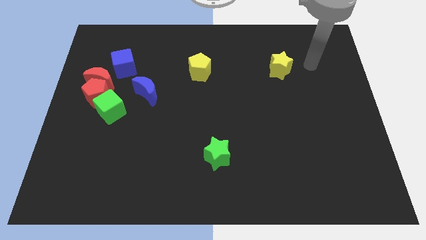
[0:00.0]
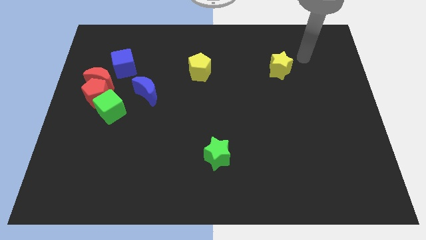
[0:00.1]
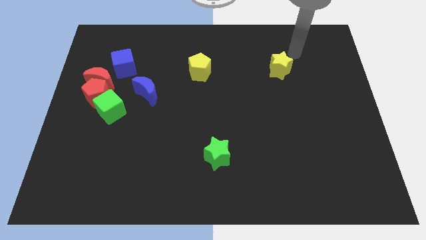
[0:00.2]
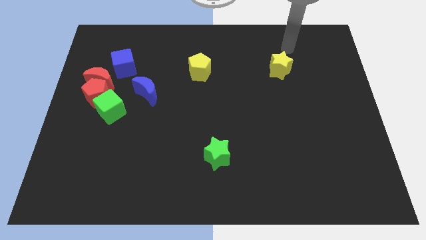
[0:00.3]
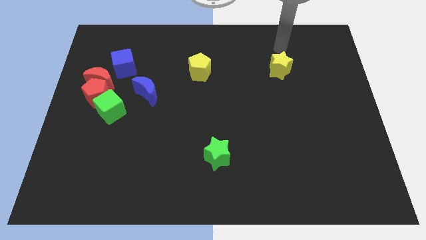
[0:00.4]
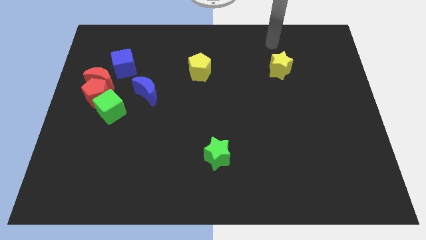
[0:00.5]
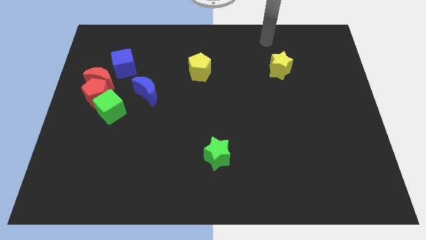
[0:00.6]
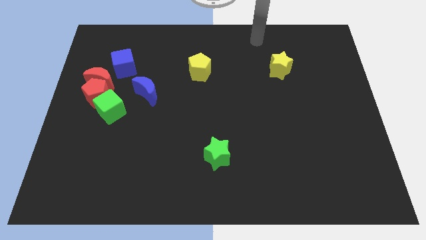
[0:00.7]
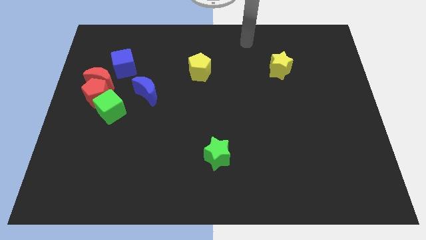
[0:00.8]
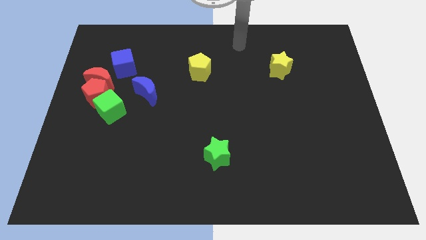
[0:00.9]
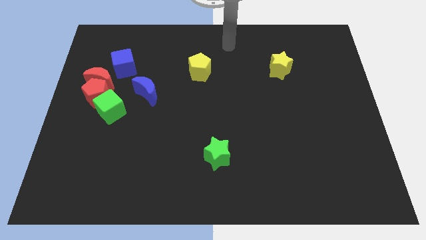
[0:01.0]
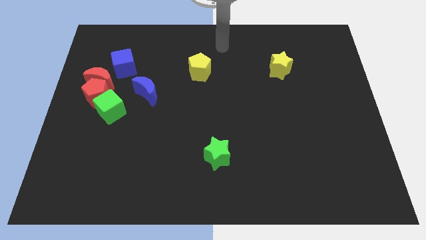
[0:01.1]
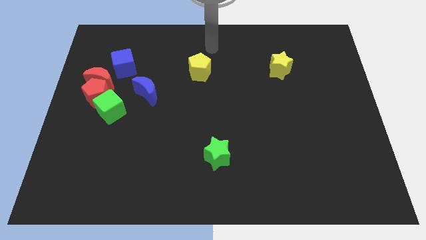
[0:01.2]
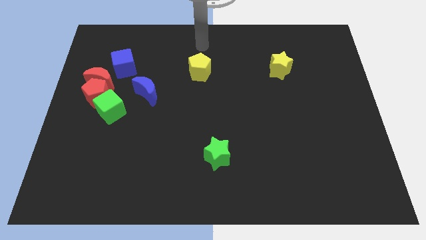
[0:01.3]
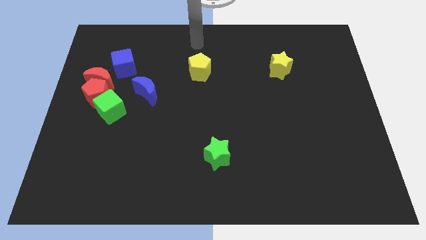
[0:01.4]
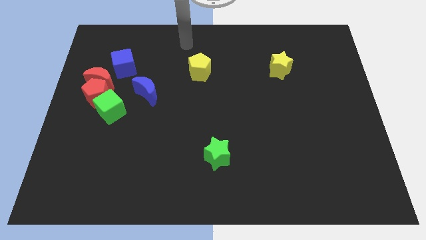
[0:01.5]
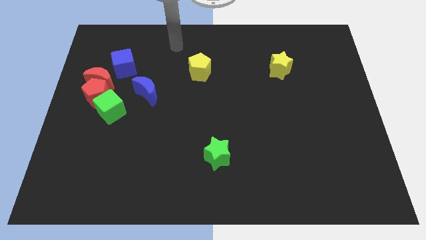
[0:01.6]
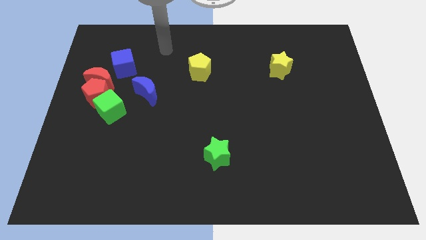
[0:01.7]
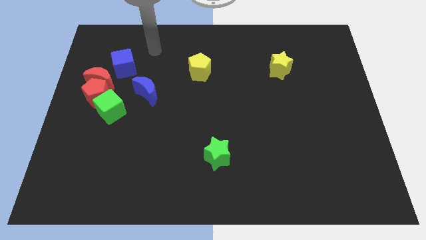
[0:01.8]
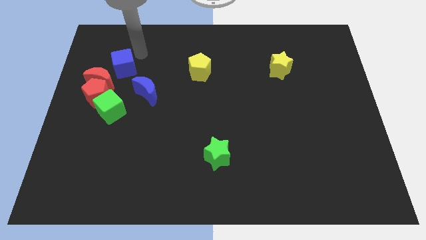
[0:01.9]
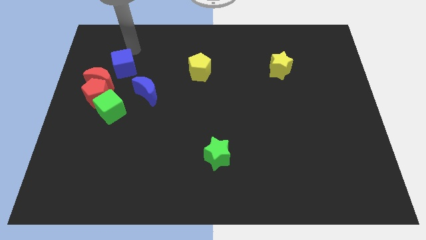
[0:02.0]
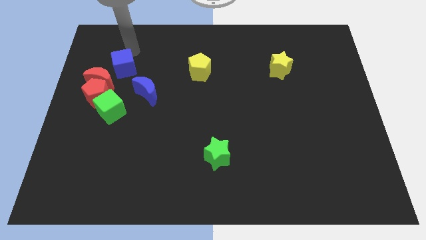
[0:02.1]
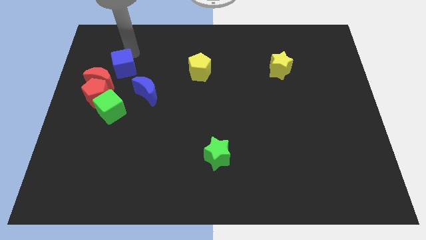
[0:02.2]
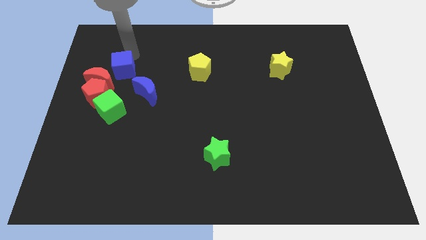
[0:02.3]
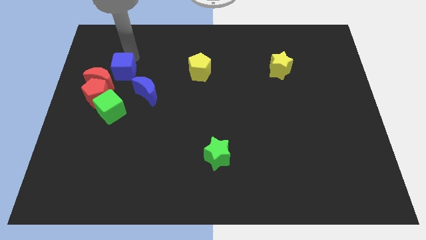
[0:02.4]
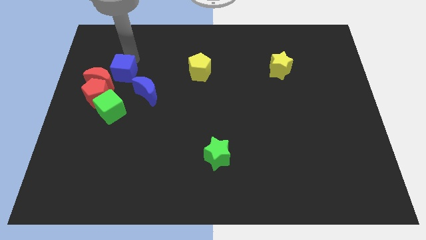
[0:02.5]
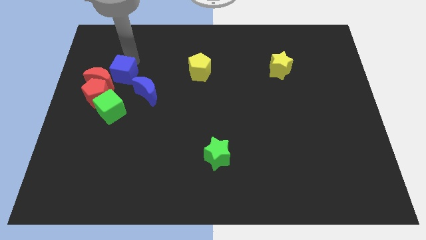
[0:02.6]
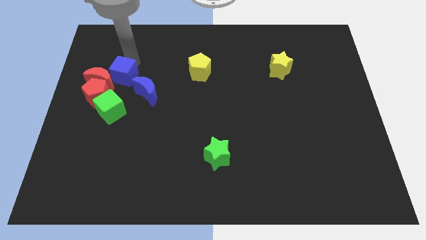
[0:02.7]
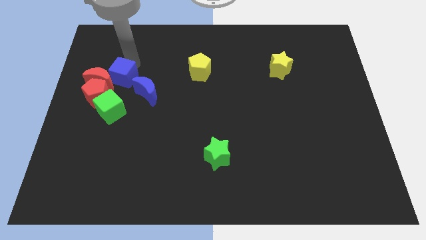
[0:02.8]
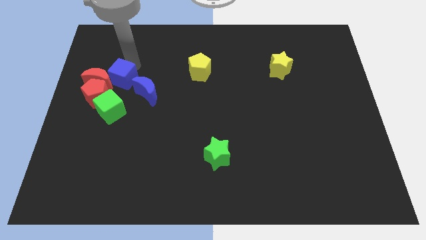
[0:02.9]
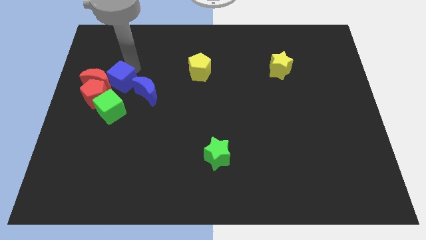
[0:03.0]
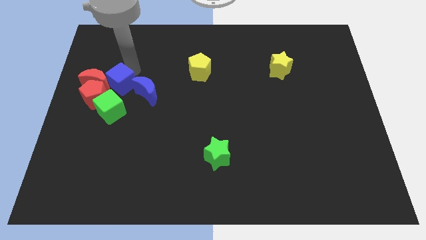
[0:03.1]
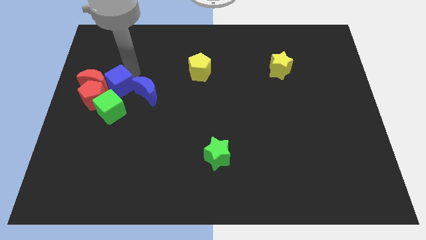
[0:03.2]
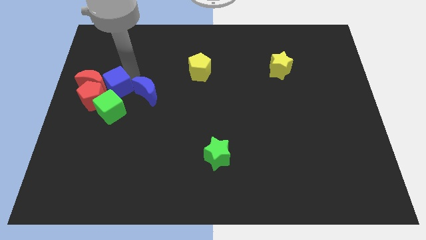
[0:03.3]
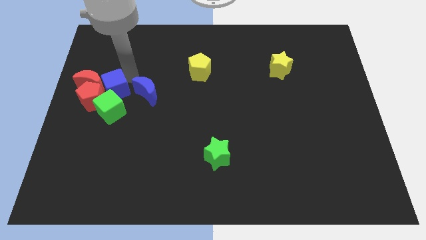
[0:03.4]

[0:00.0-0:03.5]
put the blue cube close to the red pentagon

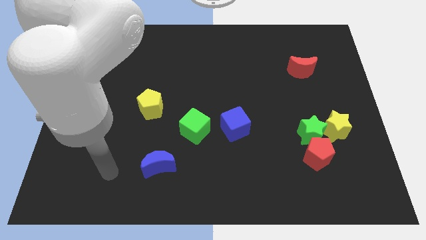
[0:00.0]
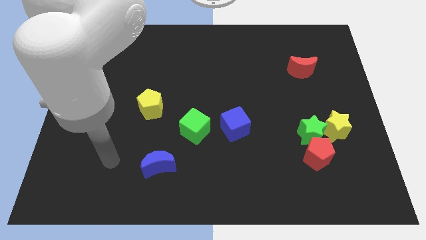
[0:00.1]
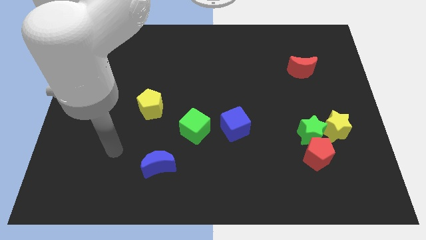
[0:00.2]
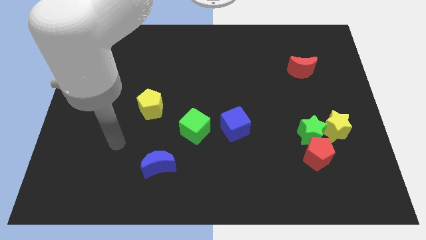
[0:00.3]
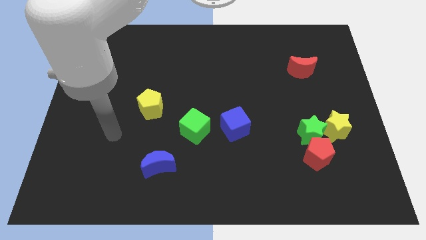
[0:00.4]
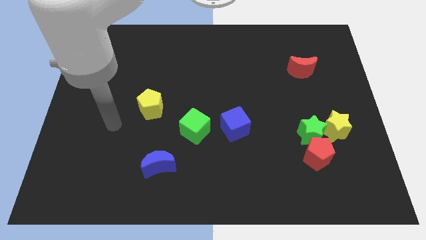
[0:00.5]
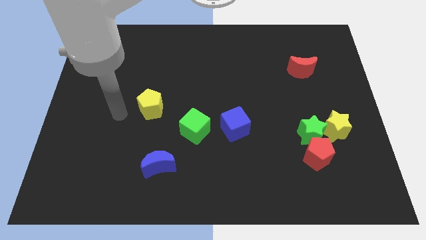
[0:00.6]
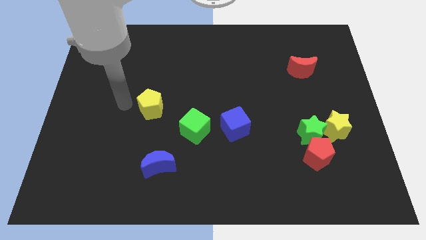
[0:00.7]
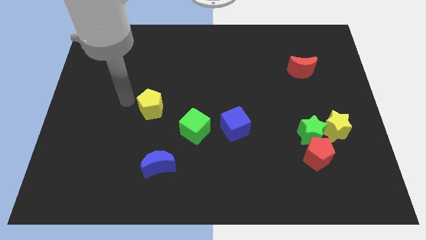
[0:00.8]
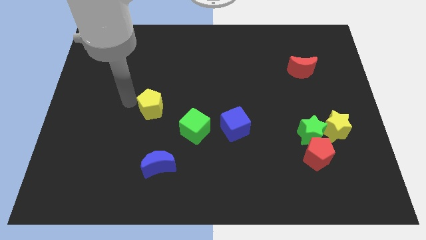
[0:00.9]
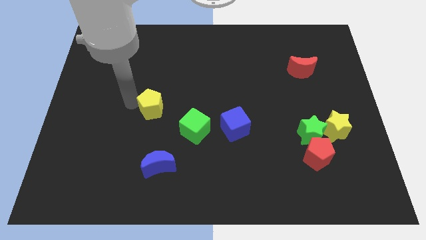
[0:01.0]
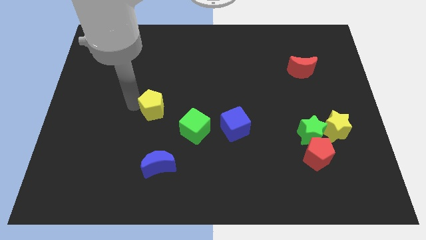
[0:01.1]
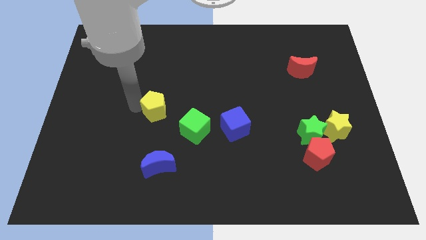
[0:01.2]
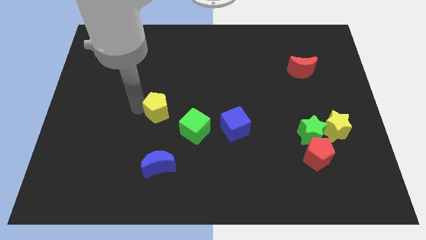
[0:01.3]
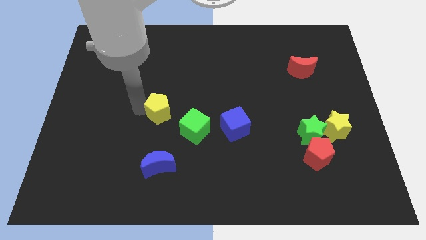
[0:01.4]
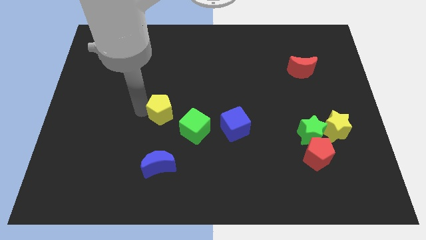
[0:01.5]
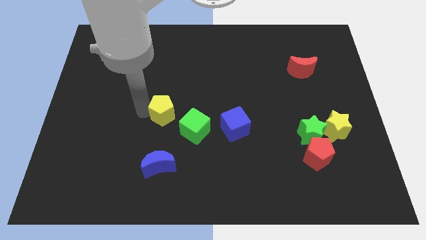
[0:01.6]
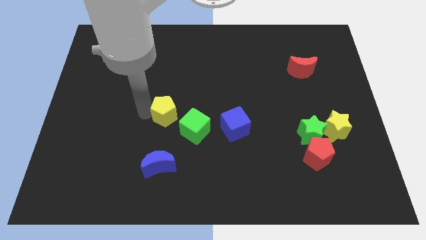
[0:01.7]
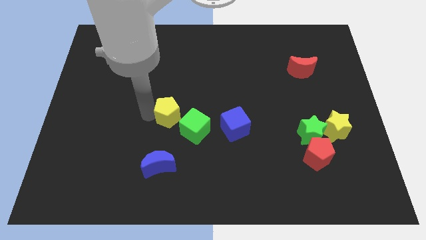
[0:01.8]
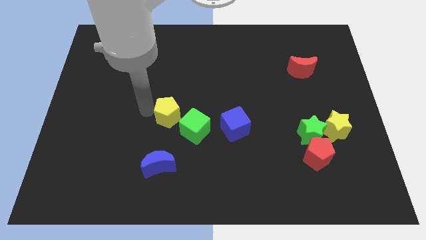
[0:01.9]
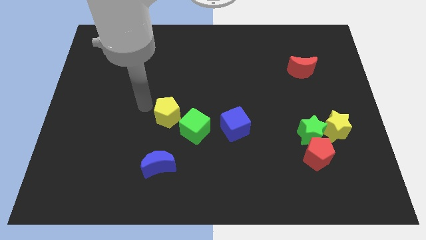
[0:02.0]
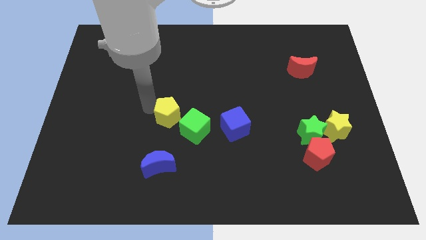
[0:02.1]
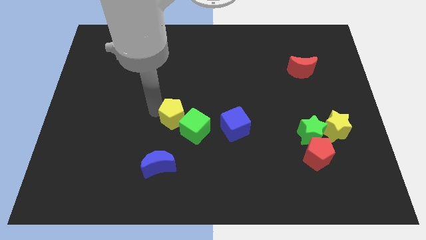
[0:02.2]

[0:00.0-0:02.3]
push the yellow pentagon close to the green cube

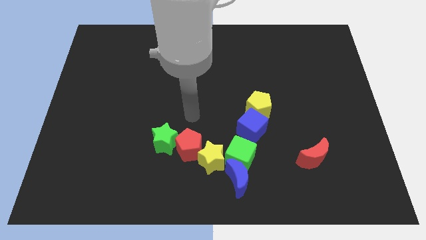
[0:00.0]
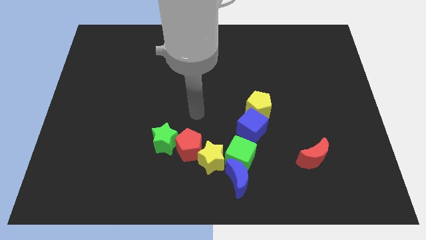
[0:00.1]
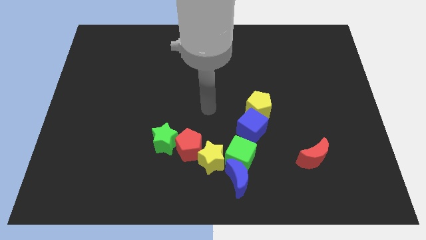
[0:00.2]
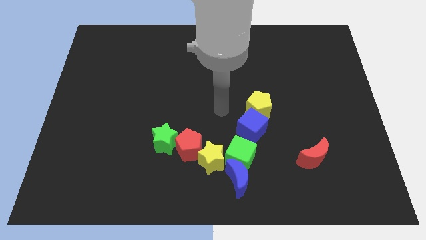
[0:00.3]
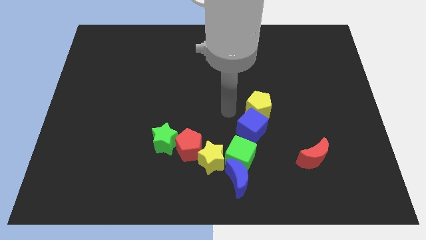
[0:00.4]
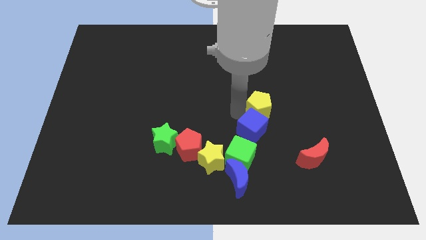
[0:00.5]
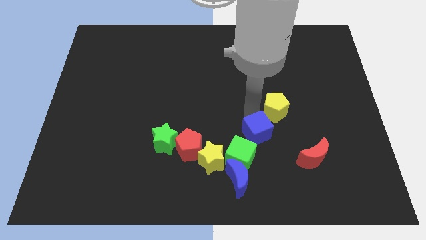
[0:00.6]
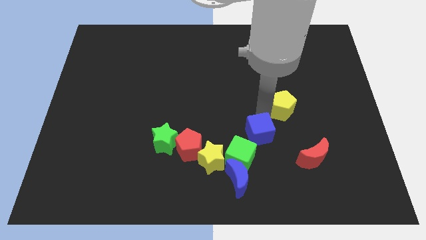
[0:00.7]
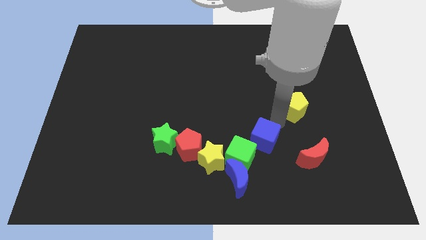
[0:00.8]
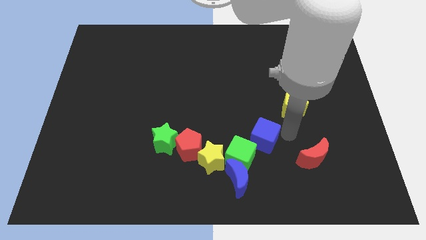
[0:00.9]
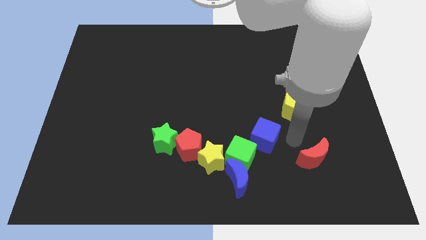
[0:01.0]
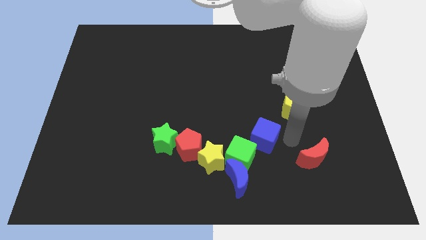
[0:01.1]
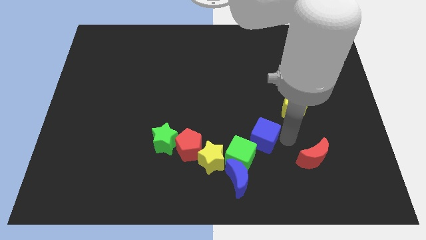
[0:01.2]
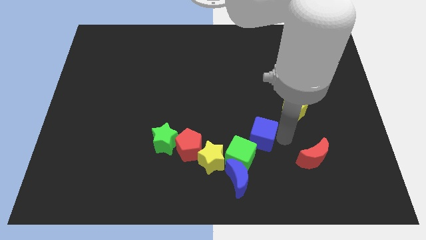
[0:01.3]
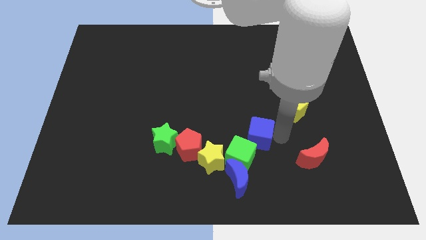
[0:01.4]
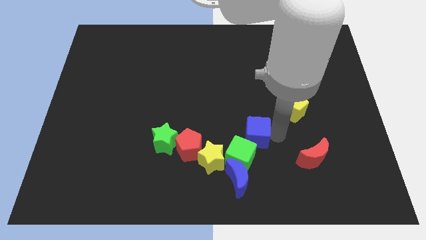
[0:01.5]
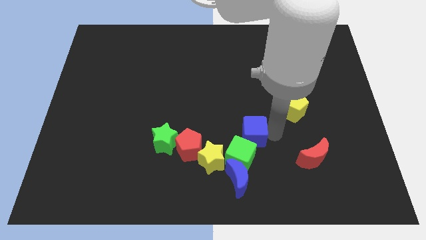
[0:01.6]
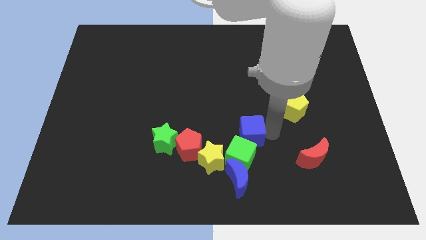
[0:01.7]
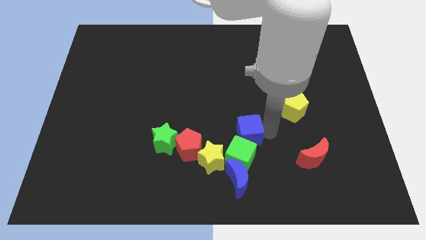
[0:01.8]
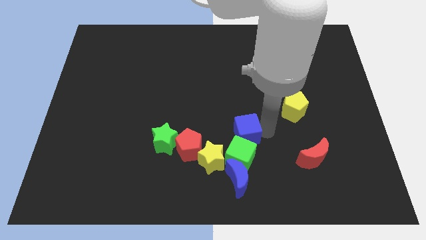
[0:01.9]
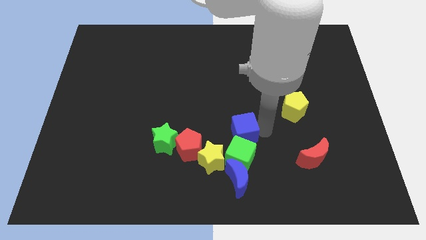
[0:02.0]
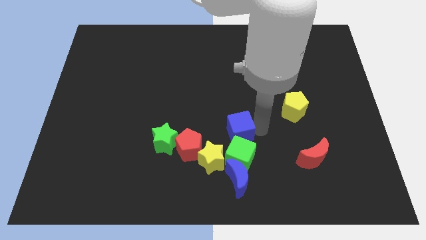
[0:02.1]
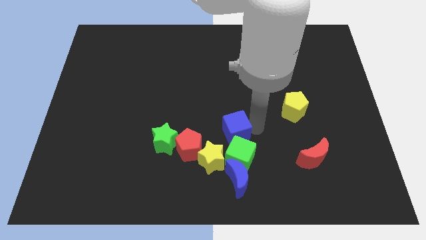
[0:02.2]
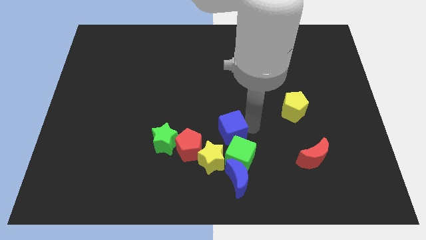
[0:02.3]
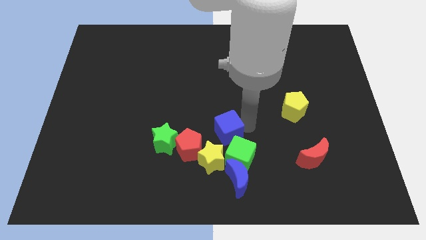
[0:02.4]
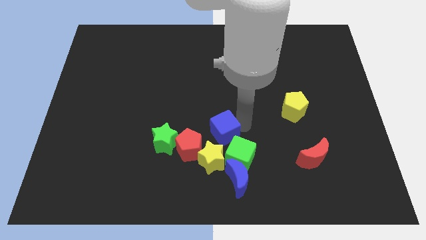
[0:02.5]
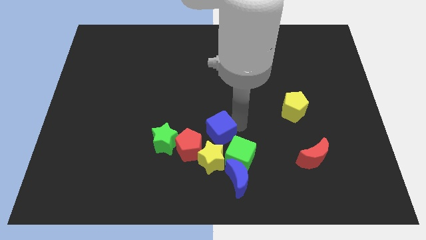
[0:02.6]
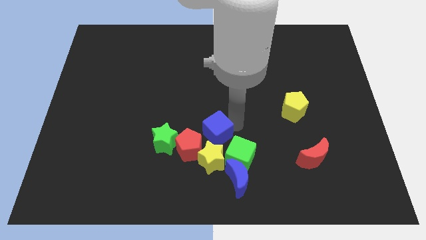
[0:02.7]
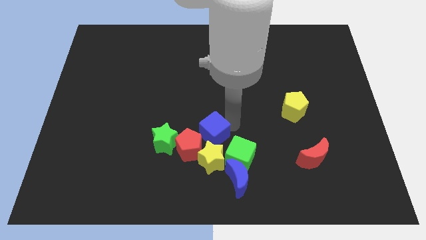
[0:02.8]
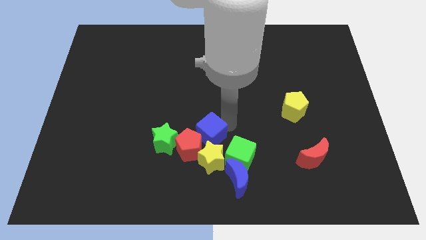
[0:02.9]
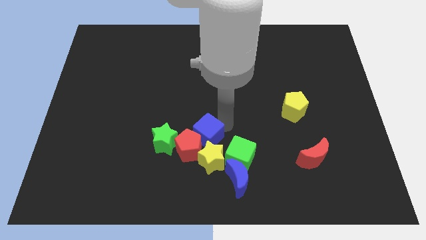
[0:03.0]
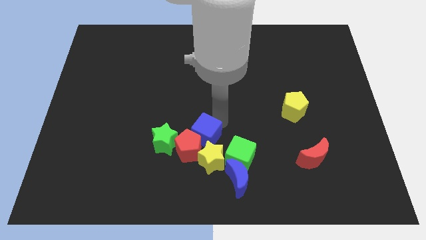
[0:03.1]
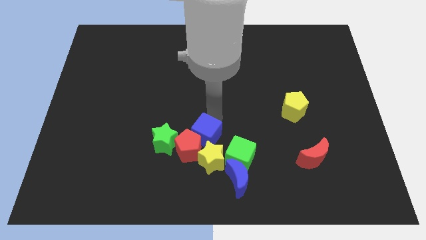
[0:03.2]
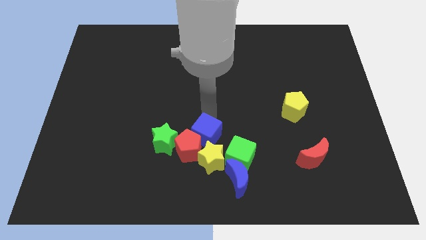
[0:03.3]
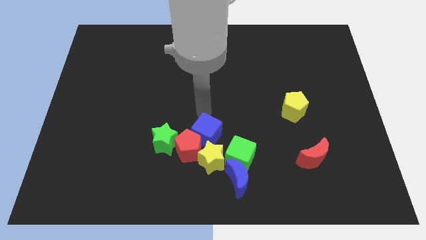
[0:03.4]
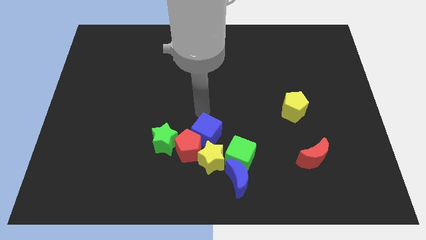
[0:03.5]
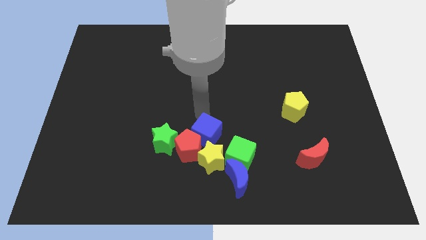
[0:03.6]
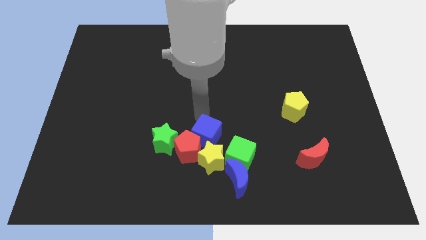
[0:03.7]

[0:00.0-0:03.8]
move the blue cube close to the yellow star
